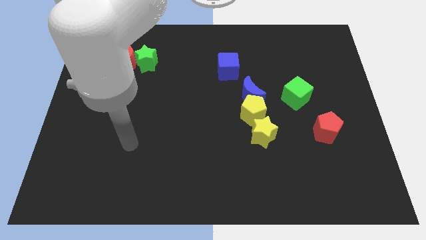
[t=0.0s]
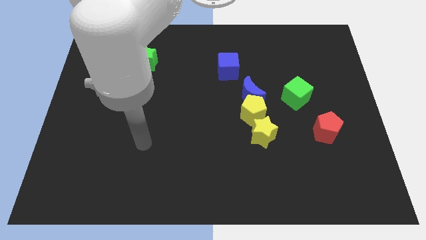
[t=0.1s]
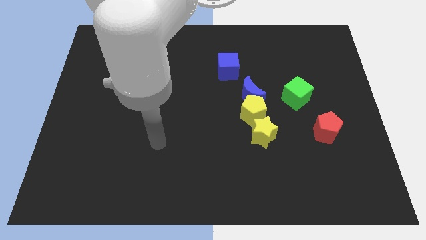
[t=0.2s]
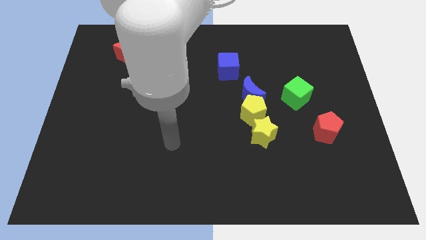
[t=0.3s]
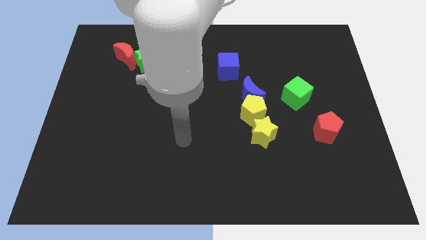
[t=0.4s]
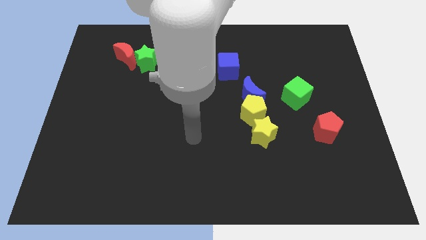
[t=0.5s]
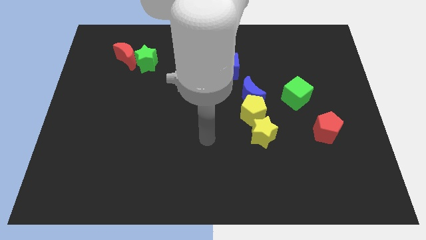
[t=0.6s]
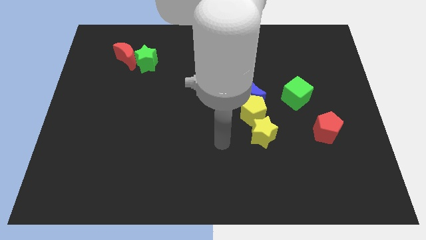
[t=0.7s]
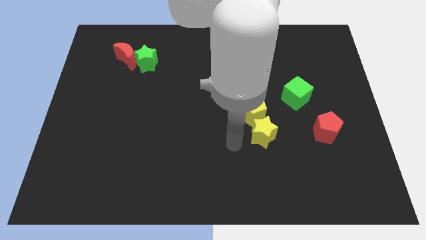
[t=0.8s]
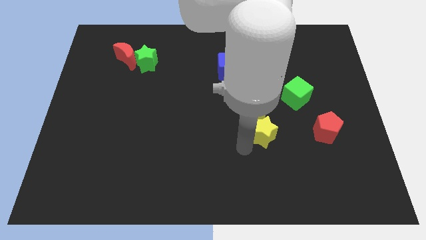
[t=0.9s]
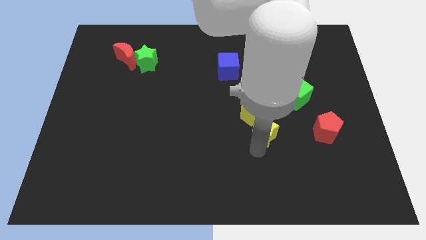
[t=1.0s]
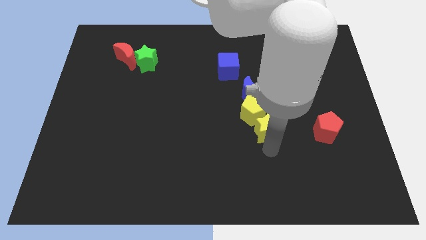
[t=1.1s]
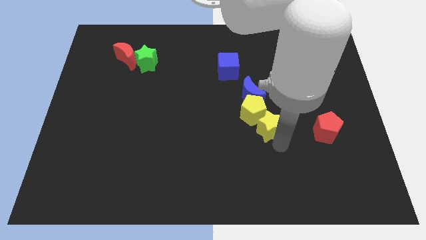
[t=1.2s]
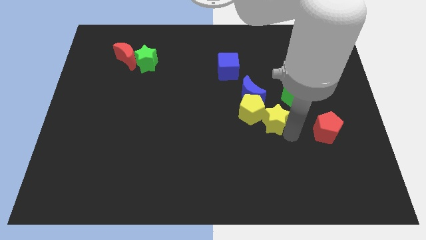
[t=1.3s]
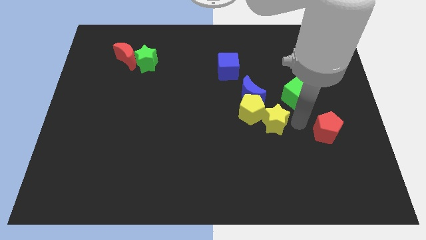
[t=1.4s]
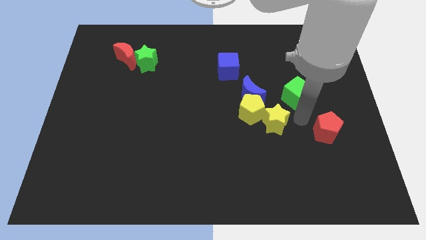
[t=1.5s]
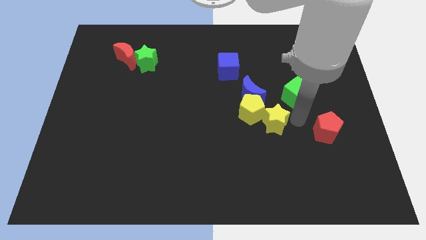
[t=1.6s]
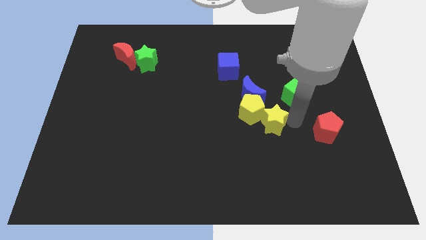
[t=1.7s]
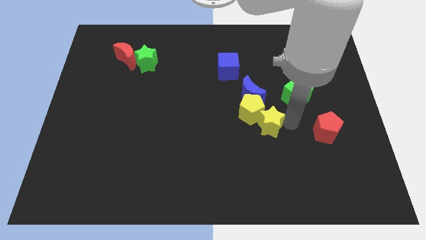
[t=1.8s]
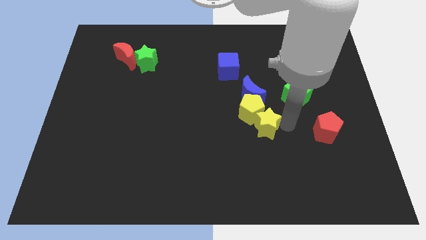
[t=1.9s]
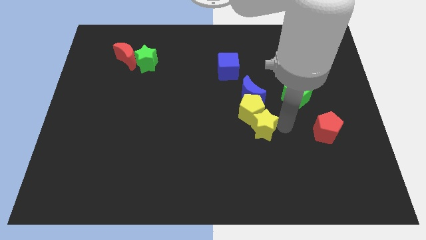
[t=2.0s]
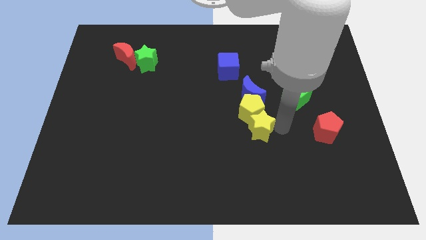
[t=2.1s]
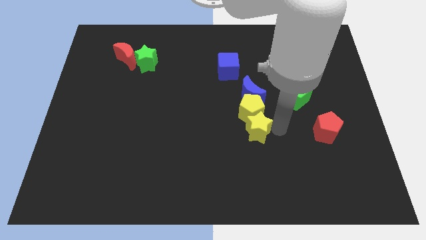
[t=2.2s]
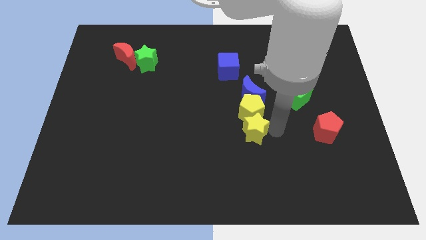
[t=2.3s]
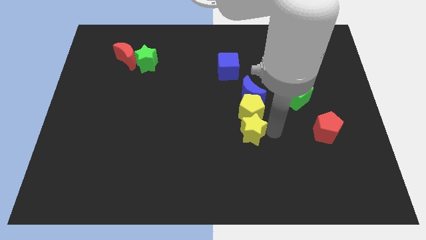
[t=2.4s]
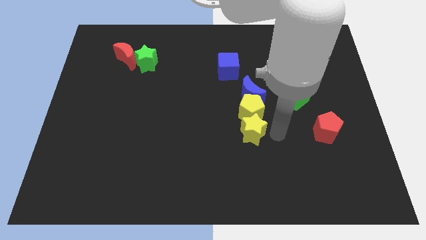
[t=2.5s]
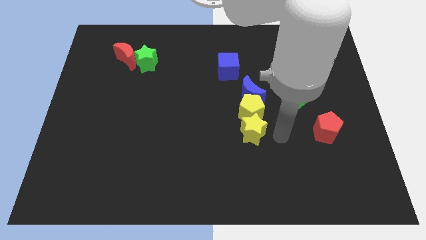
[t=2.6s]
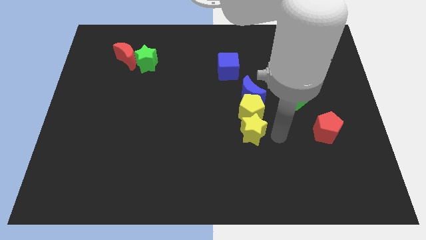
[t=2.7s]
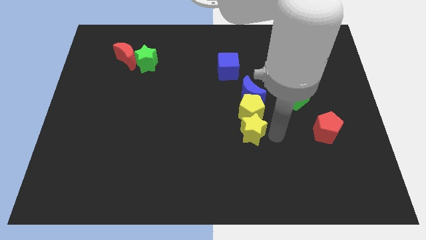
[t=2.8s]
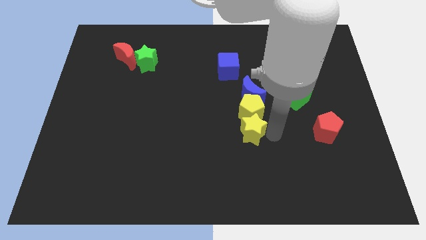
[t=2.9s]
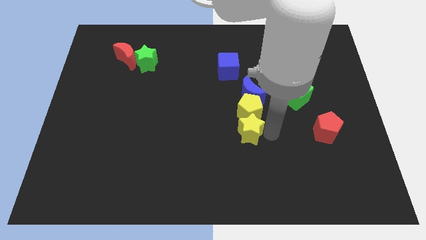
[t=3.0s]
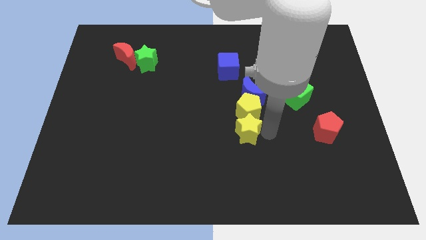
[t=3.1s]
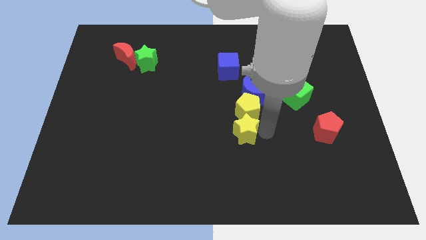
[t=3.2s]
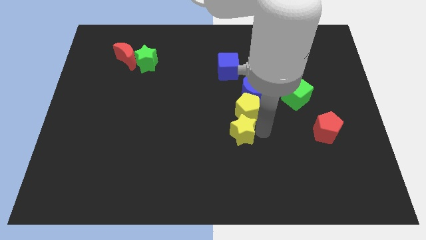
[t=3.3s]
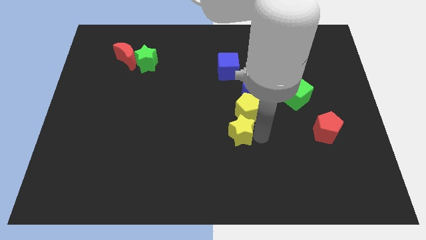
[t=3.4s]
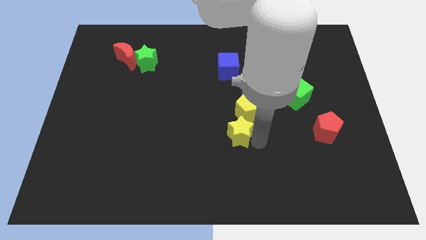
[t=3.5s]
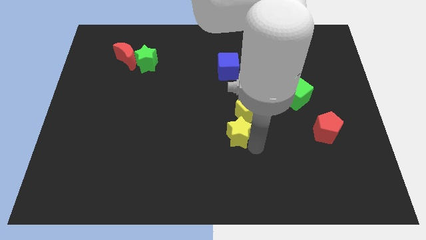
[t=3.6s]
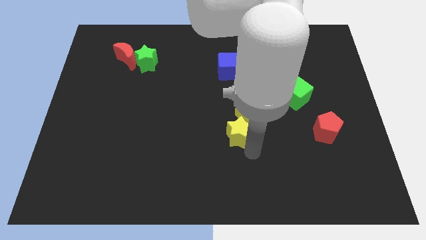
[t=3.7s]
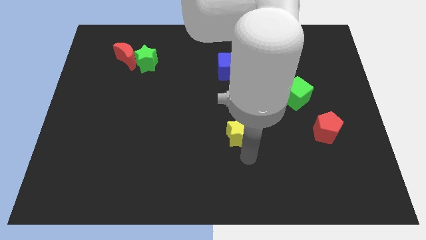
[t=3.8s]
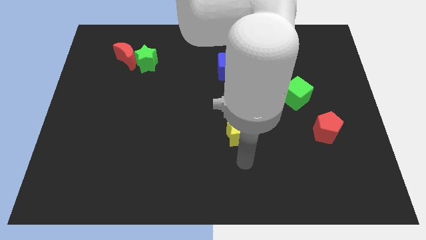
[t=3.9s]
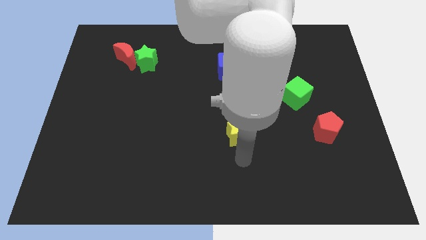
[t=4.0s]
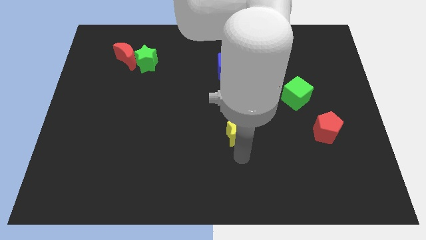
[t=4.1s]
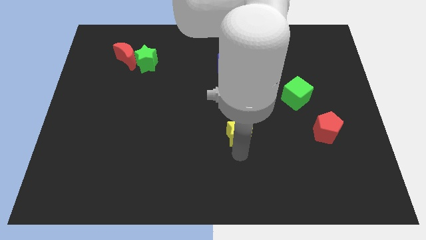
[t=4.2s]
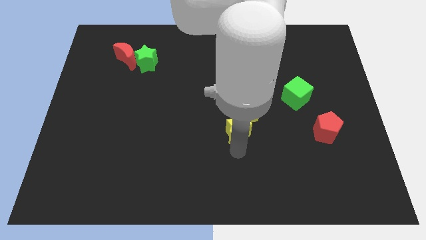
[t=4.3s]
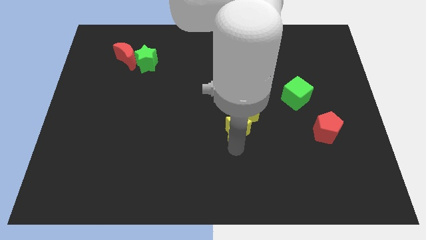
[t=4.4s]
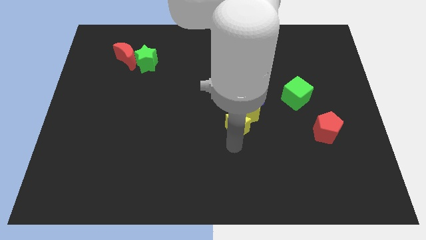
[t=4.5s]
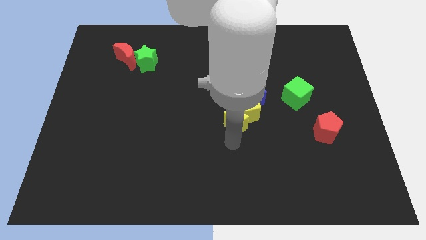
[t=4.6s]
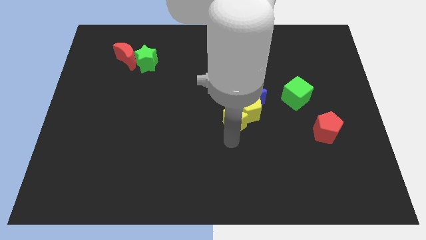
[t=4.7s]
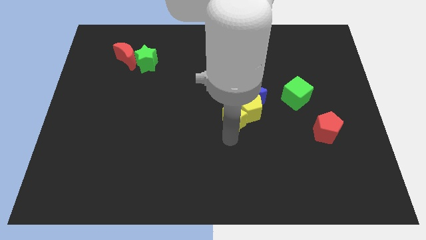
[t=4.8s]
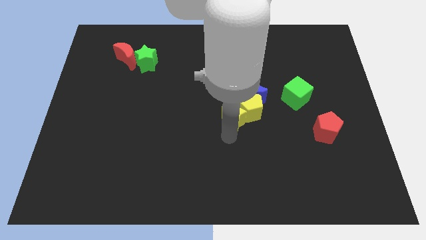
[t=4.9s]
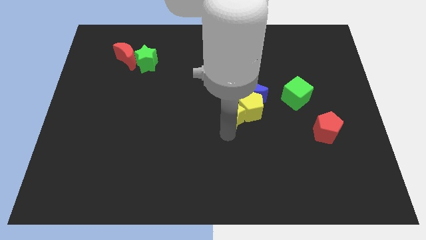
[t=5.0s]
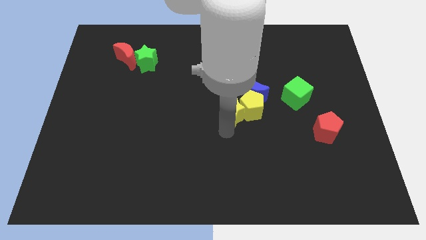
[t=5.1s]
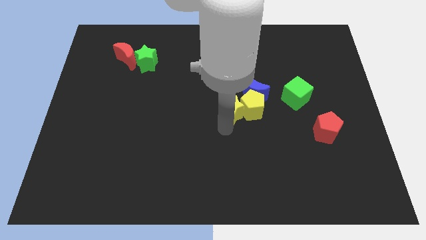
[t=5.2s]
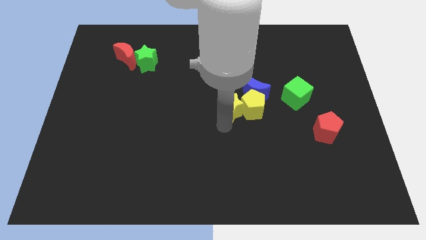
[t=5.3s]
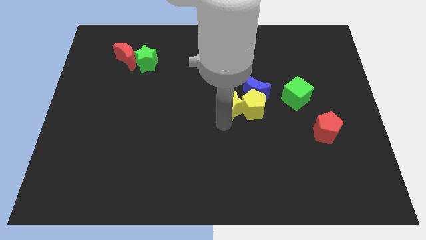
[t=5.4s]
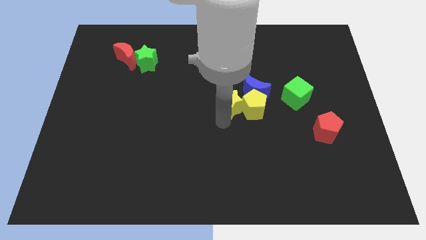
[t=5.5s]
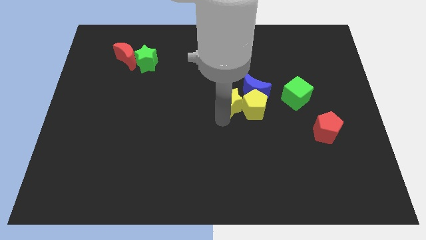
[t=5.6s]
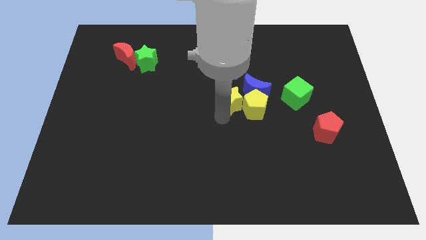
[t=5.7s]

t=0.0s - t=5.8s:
move the yellow star upwards somewhat

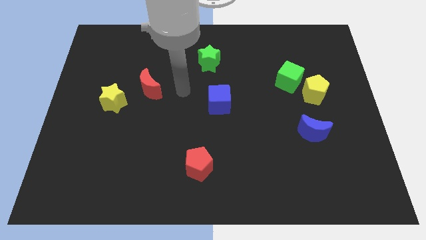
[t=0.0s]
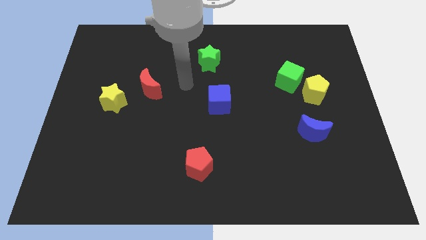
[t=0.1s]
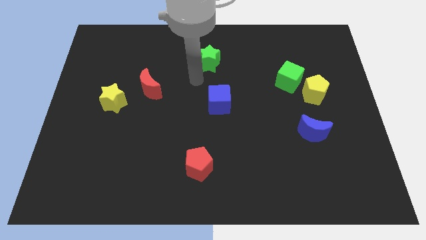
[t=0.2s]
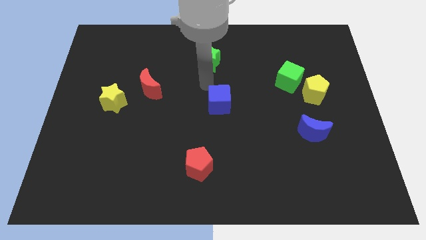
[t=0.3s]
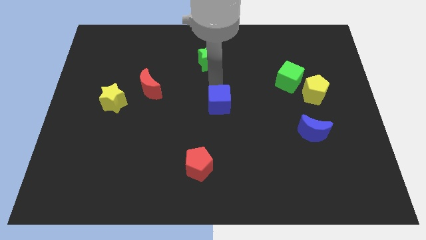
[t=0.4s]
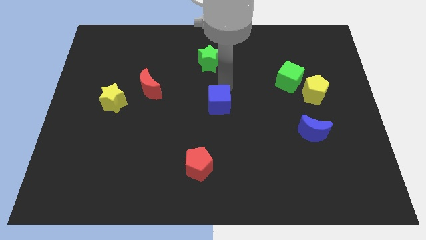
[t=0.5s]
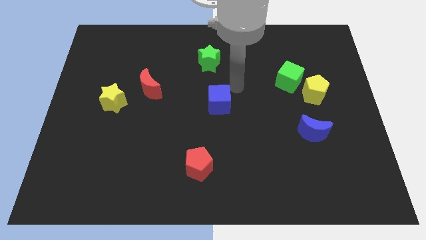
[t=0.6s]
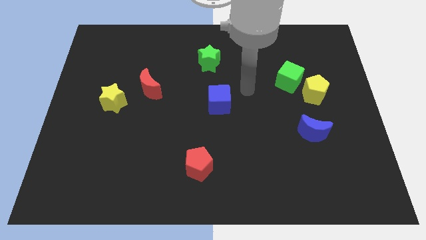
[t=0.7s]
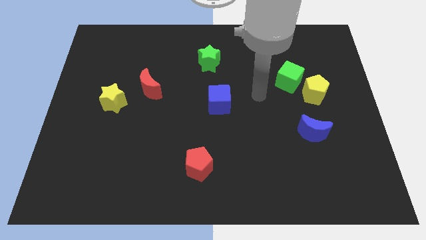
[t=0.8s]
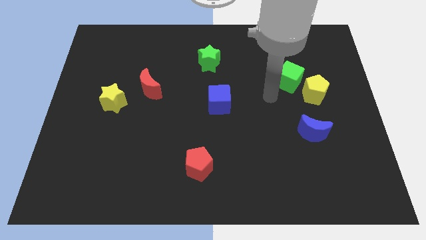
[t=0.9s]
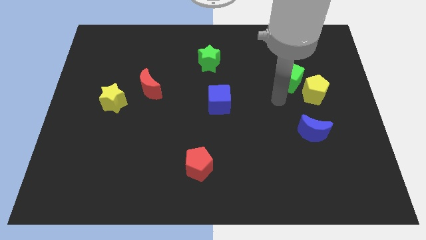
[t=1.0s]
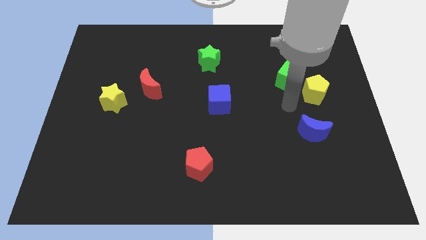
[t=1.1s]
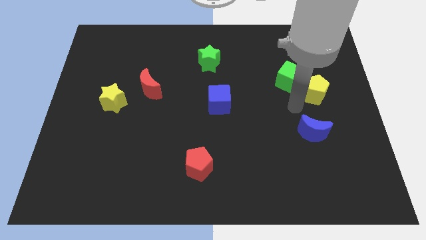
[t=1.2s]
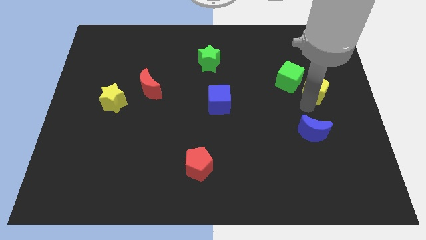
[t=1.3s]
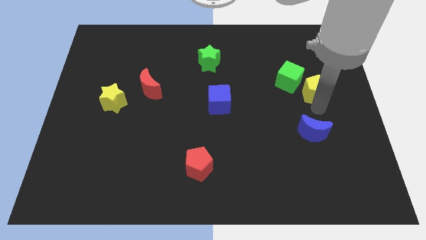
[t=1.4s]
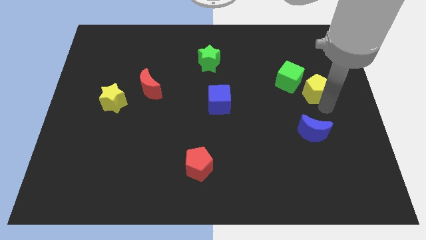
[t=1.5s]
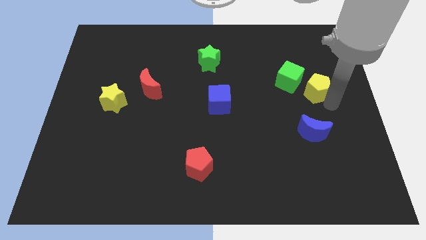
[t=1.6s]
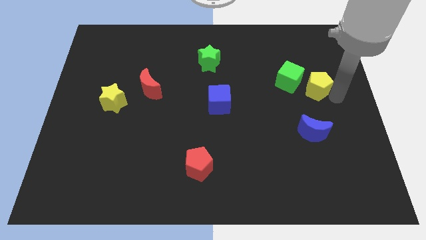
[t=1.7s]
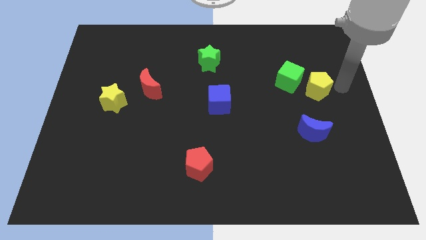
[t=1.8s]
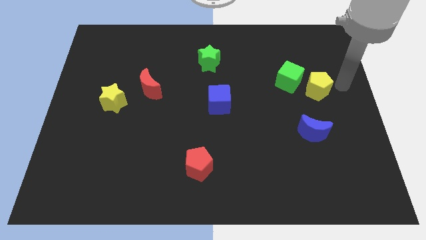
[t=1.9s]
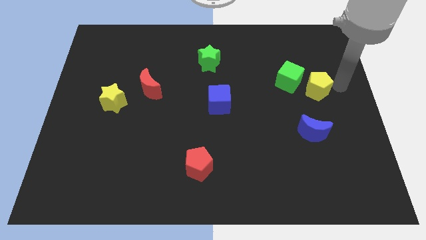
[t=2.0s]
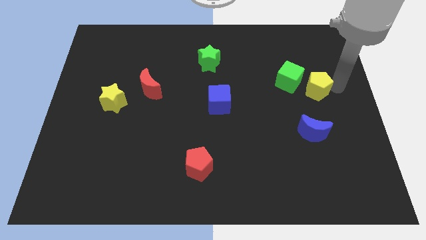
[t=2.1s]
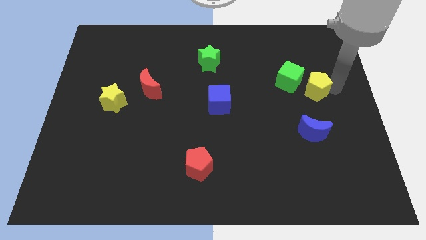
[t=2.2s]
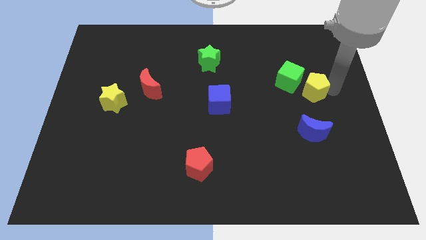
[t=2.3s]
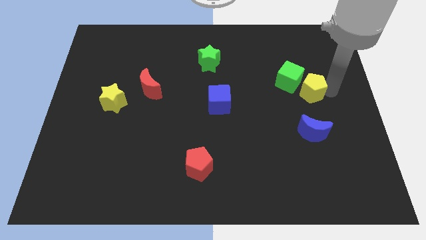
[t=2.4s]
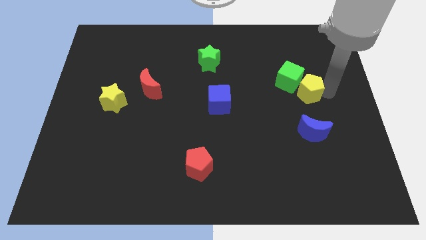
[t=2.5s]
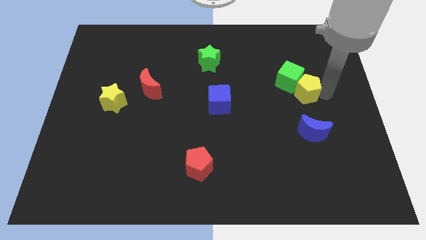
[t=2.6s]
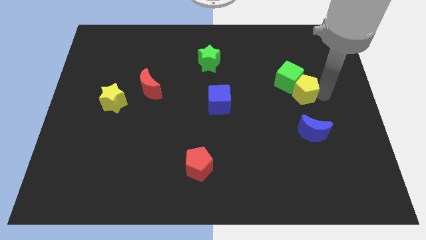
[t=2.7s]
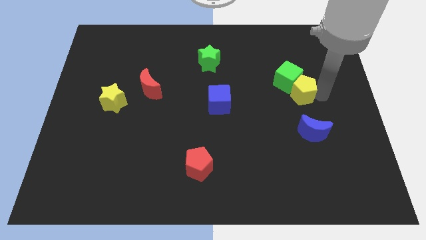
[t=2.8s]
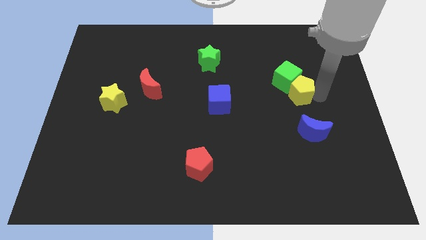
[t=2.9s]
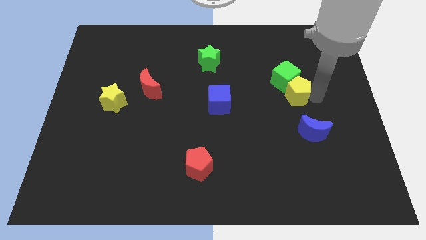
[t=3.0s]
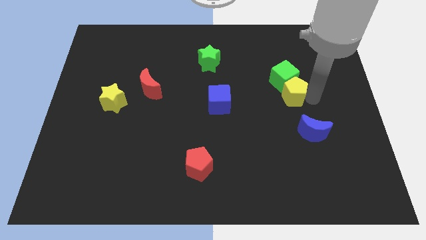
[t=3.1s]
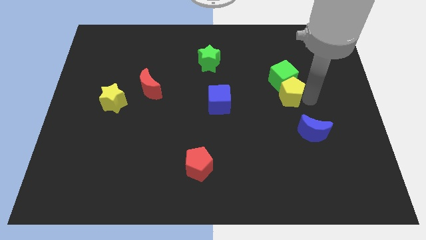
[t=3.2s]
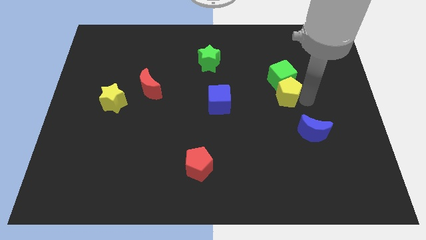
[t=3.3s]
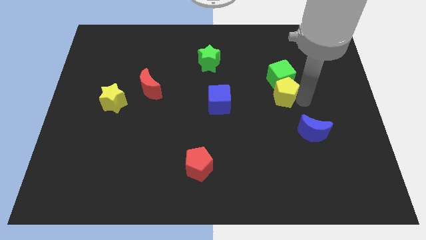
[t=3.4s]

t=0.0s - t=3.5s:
push the yellow pentagon left a bit
